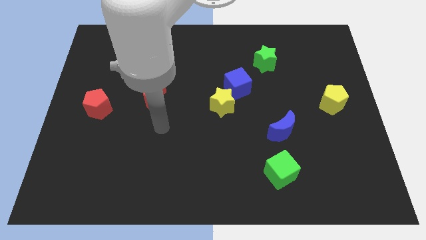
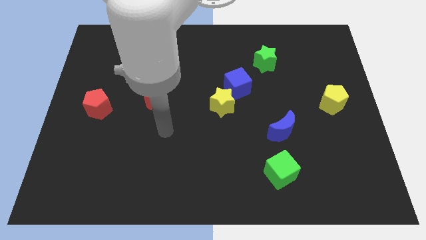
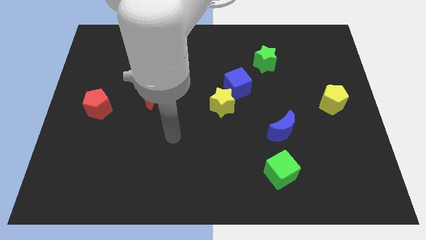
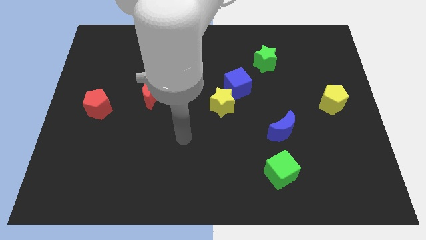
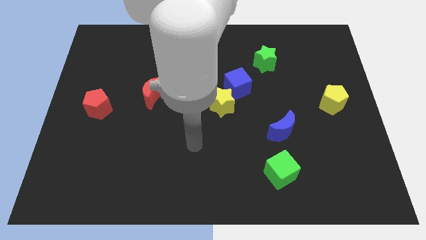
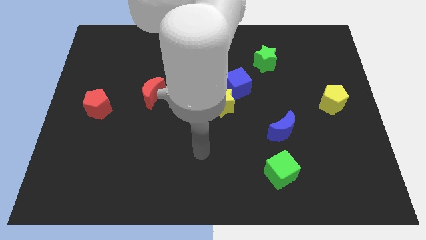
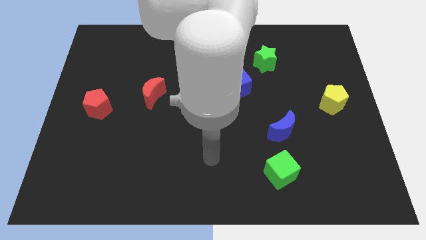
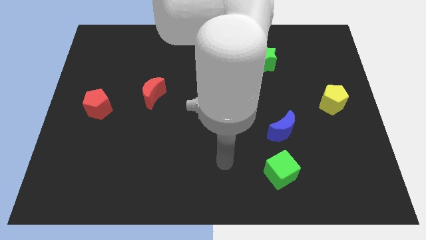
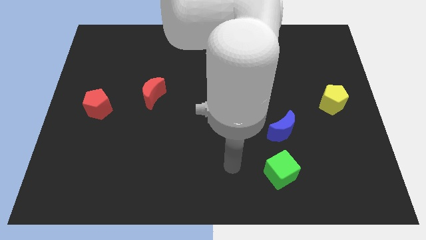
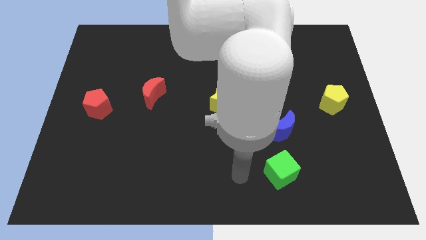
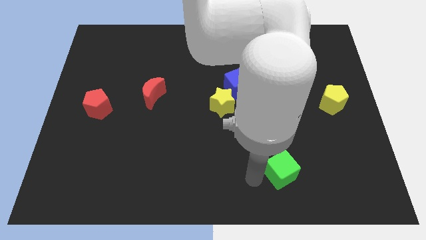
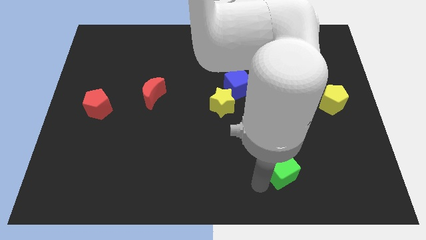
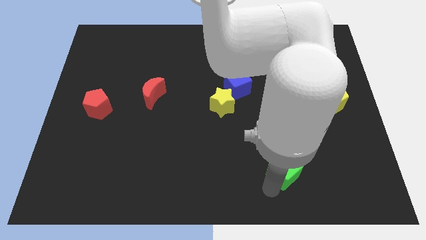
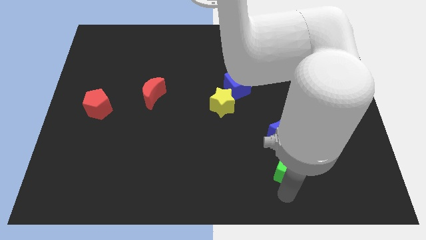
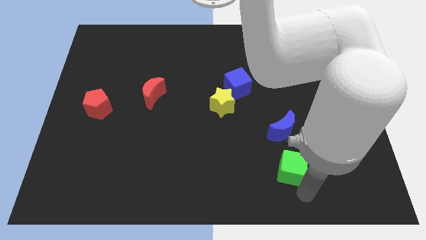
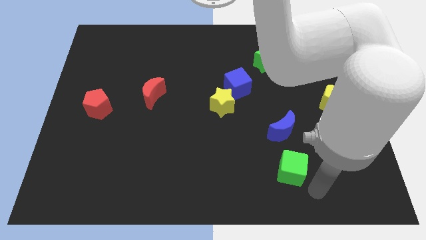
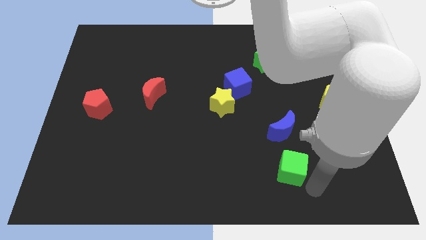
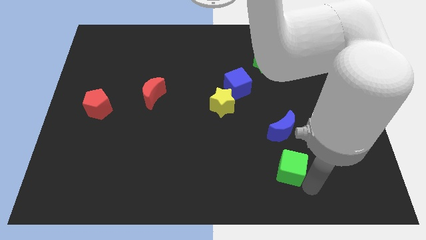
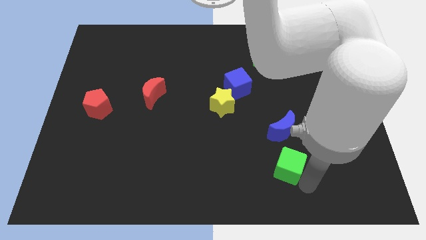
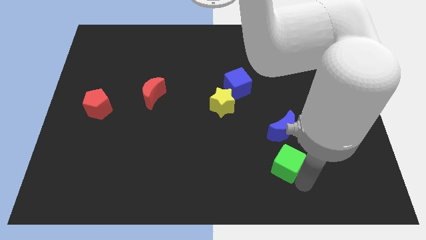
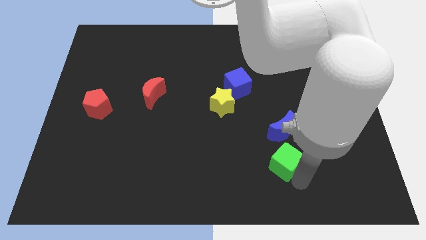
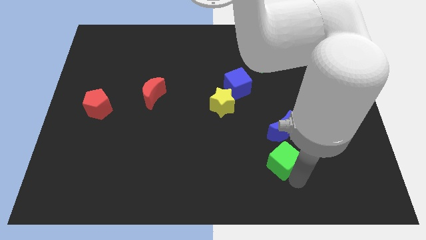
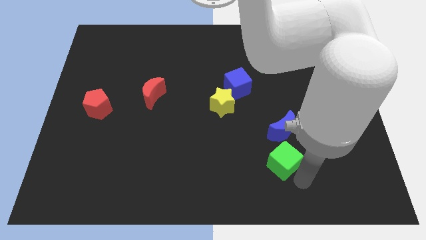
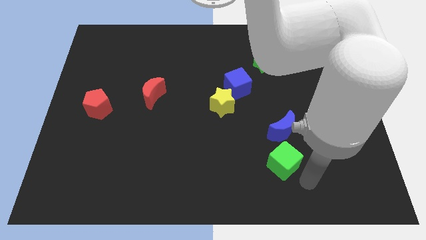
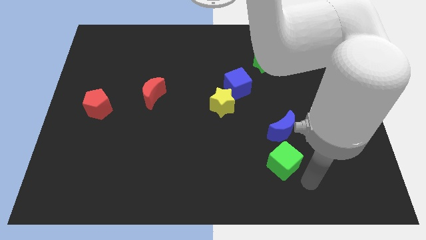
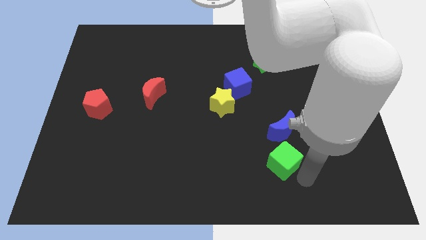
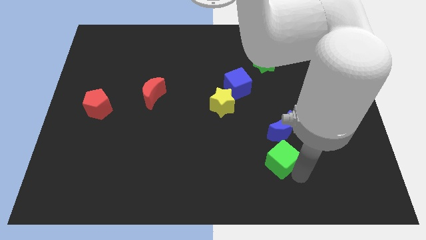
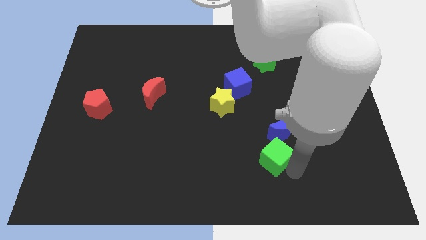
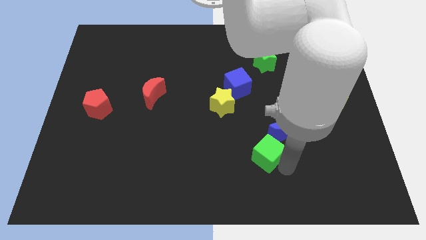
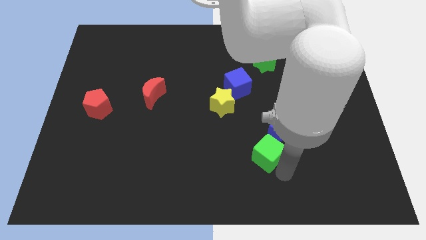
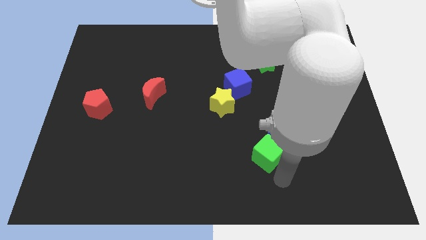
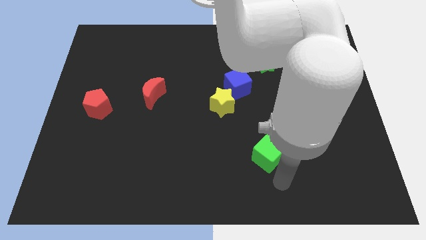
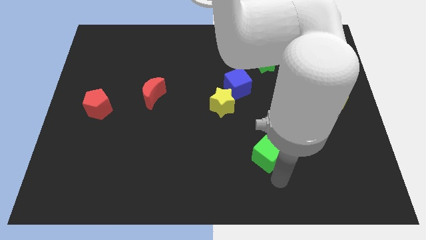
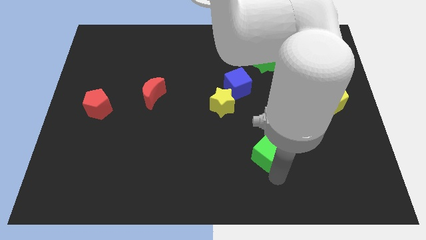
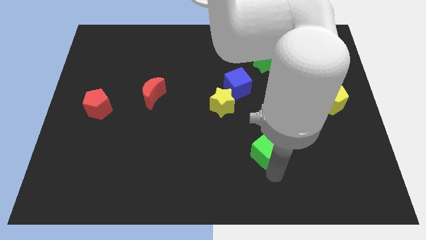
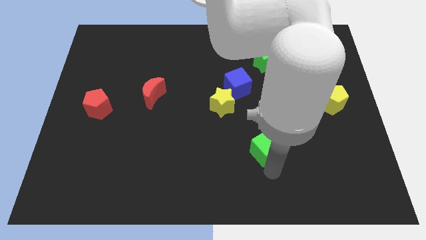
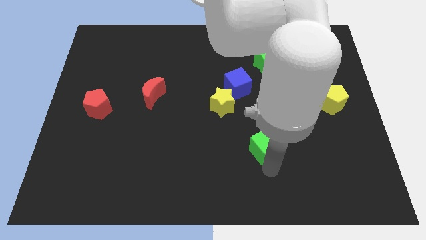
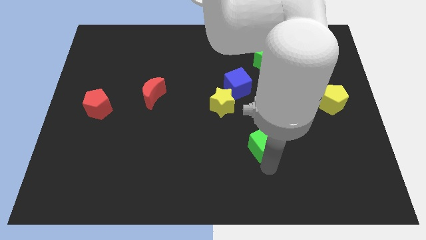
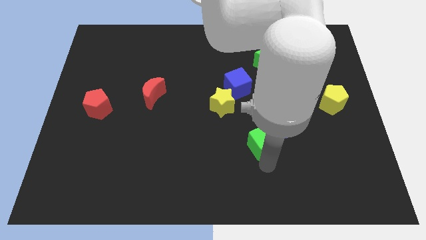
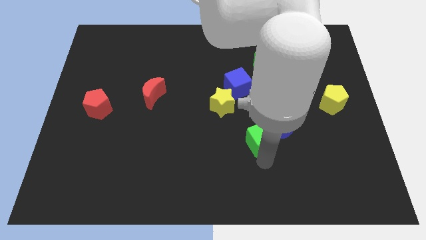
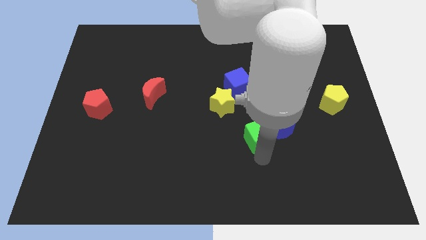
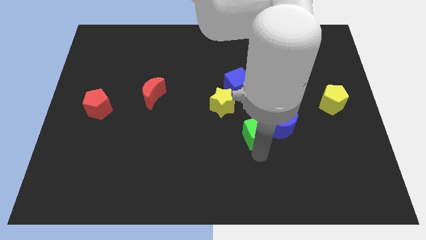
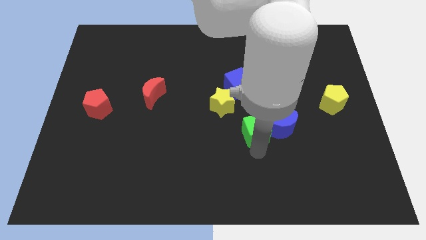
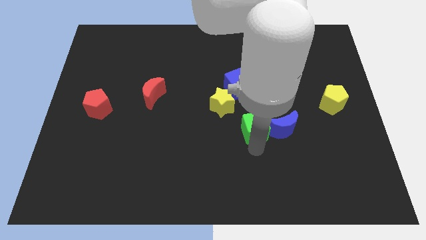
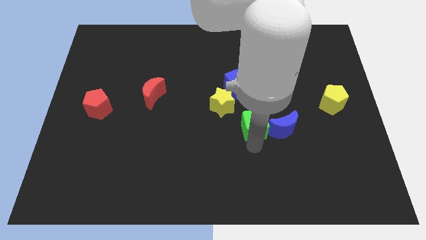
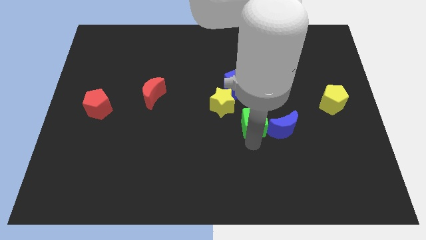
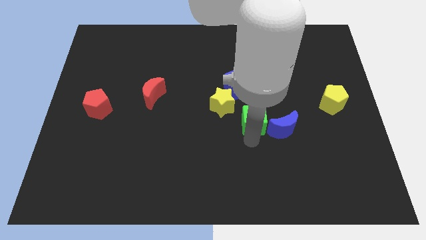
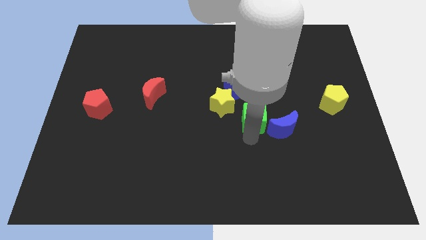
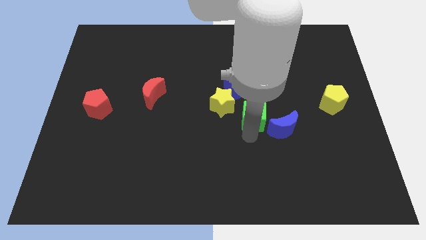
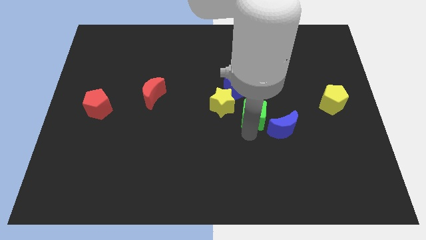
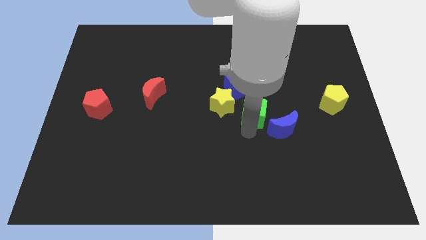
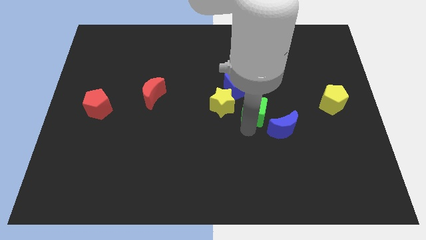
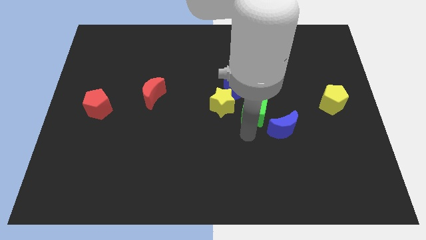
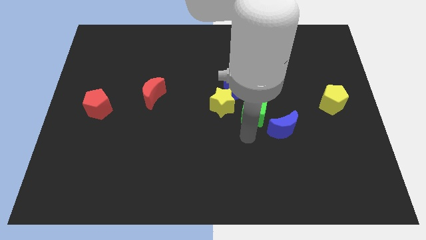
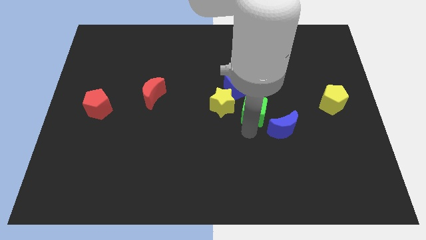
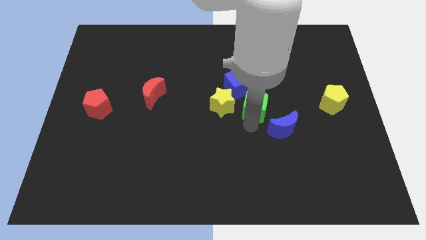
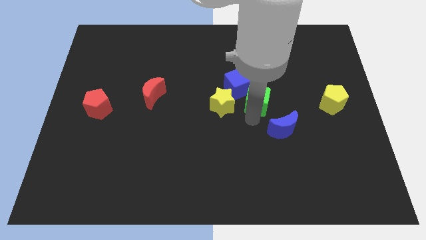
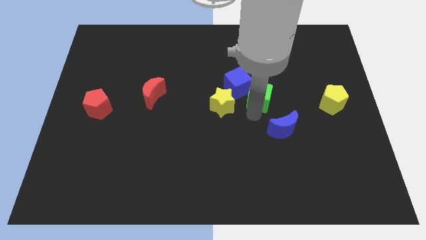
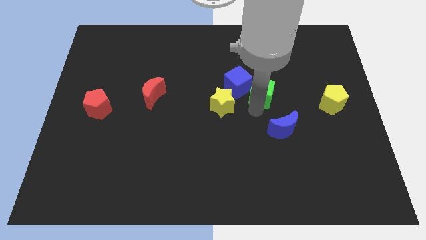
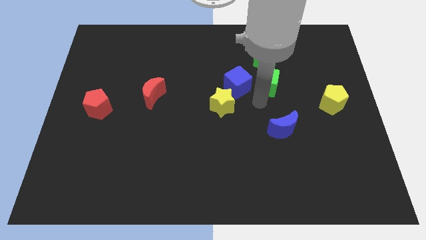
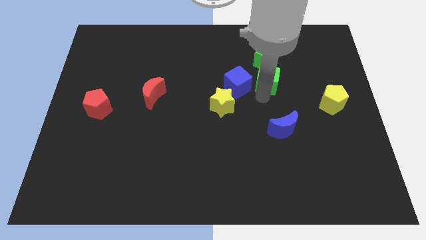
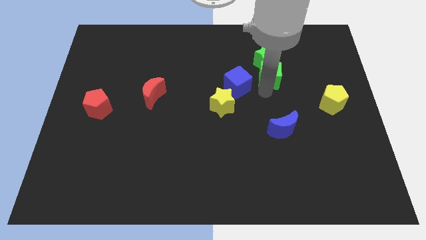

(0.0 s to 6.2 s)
move the green cube towards the green star

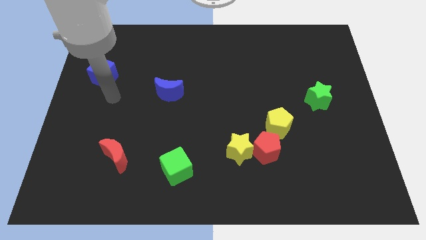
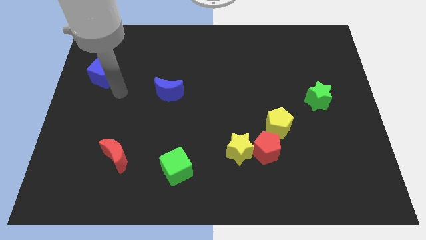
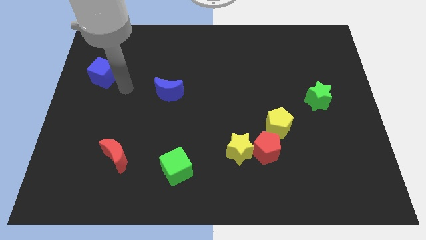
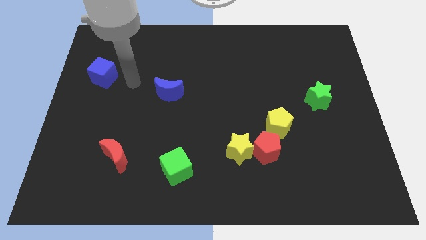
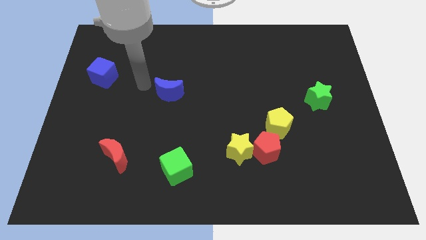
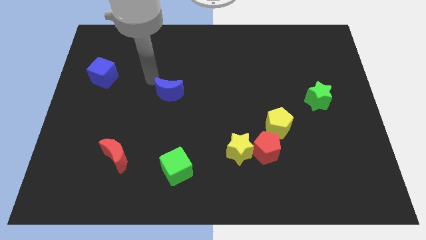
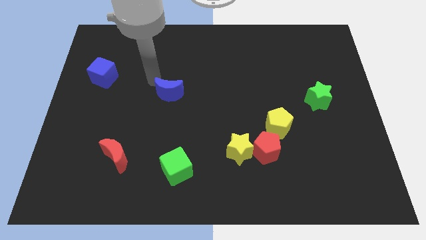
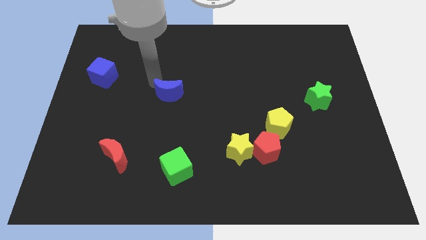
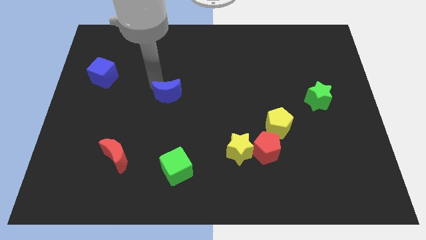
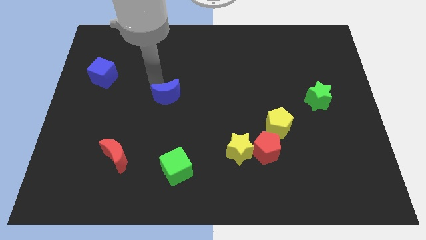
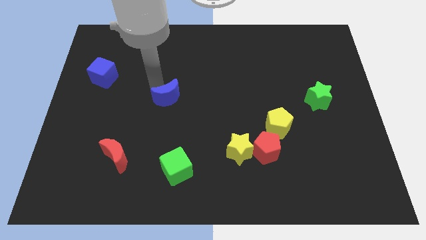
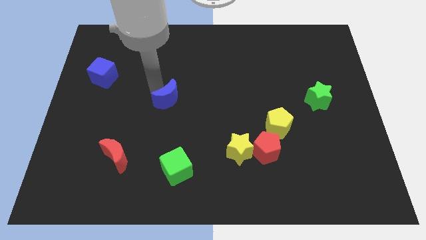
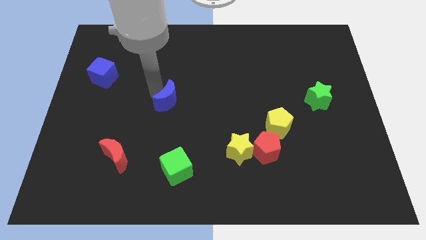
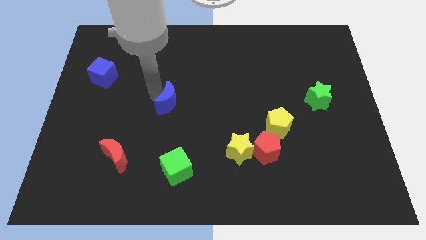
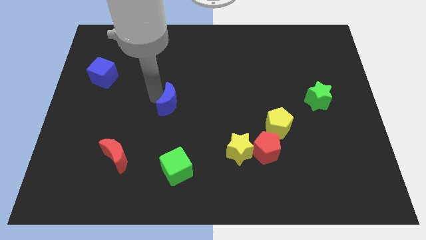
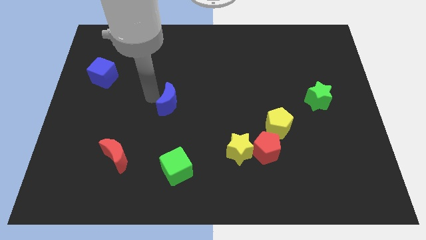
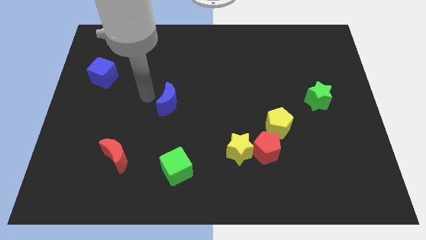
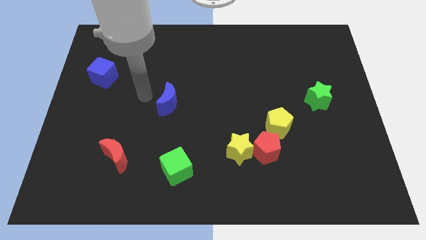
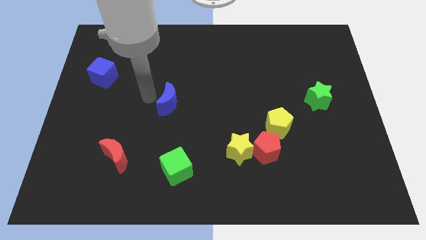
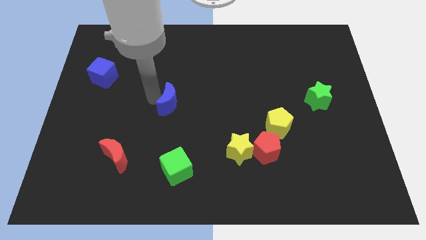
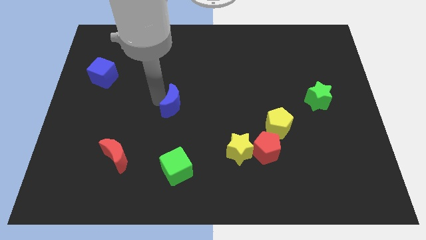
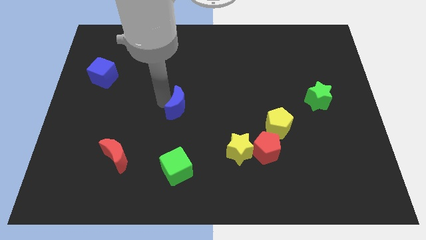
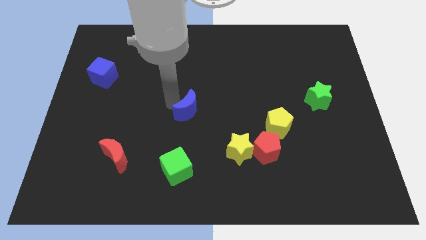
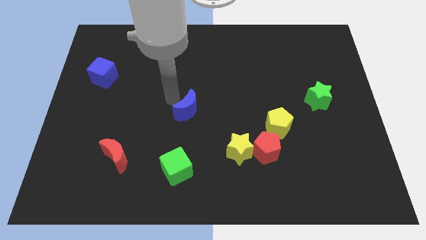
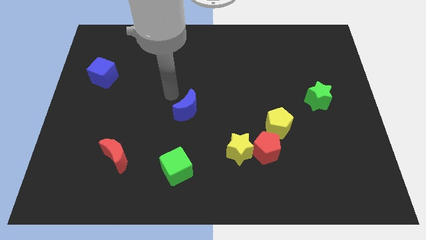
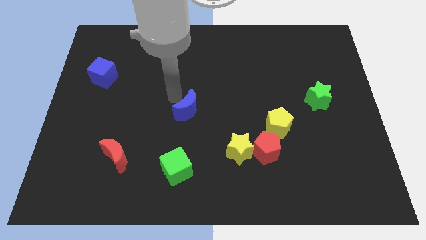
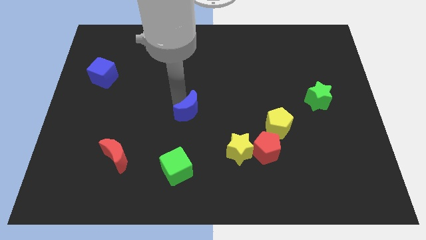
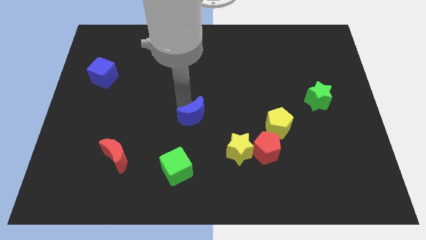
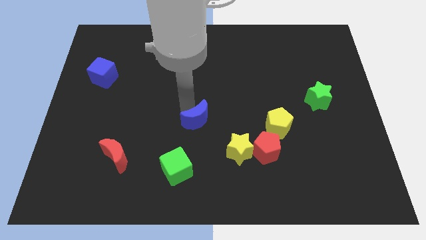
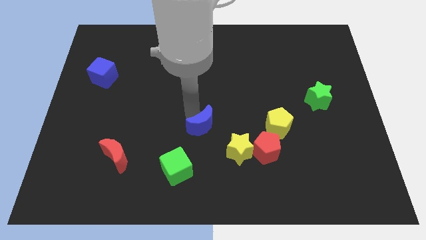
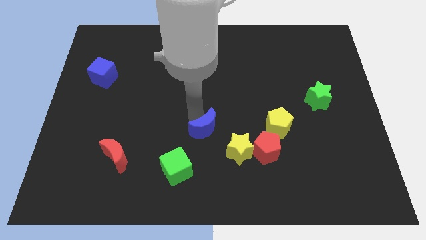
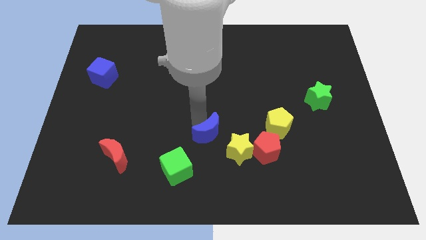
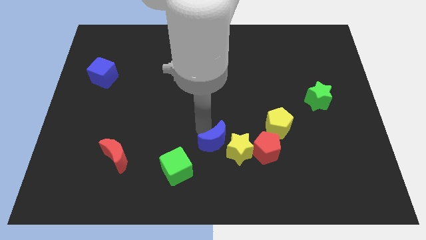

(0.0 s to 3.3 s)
move the blue moon close to the yellow star
